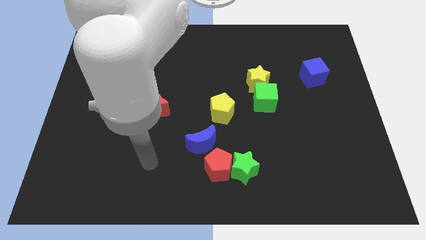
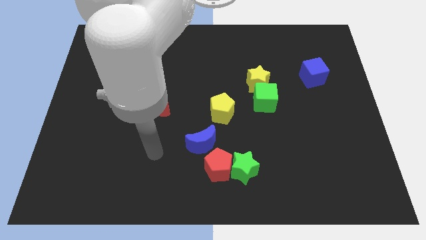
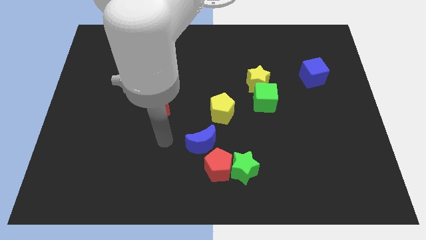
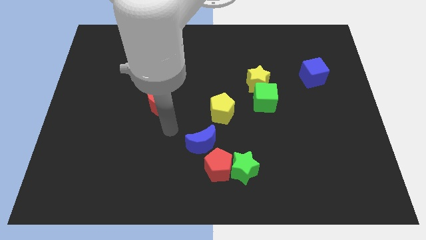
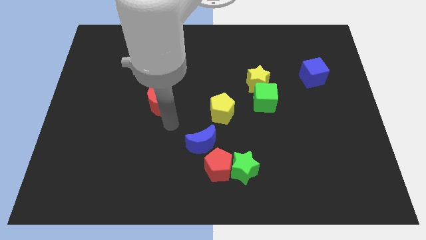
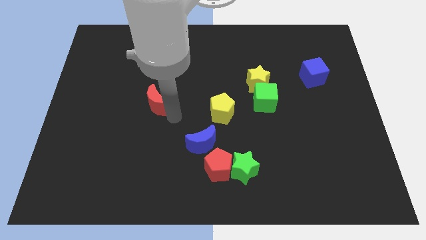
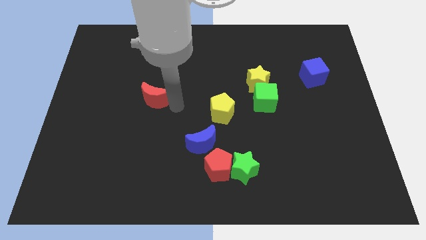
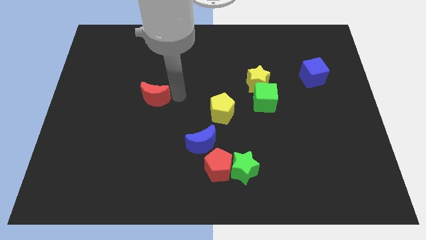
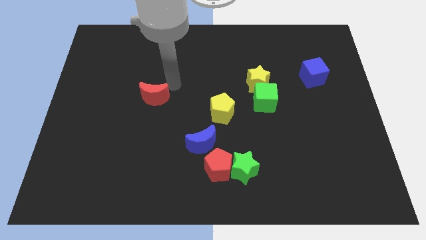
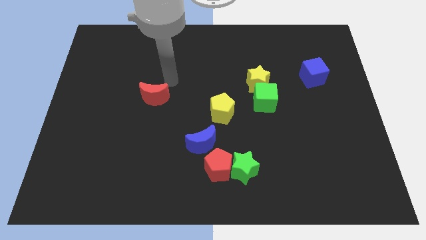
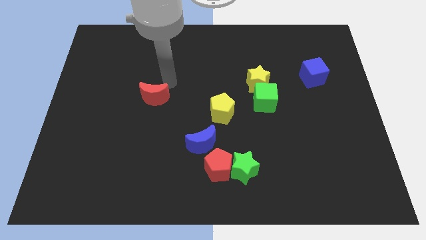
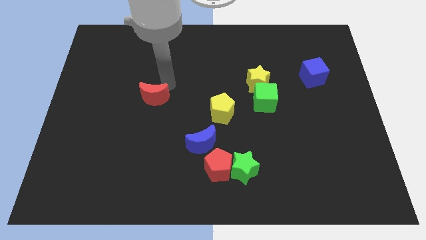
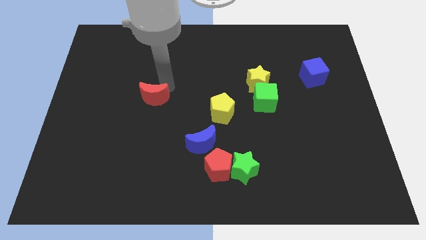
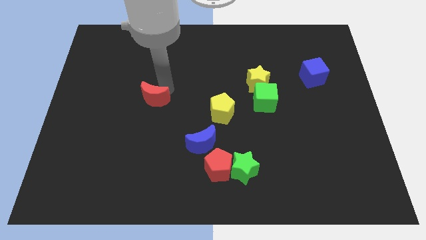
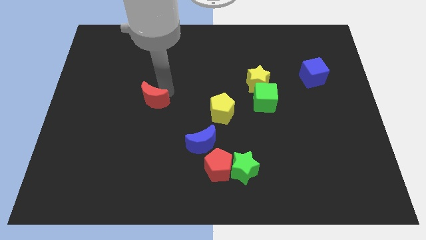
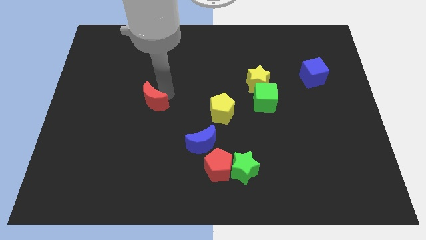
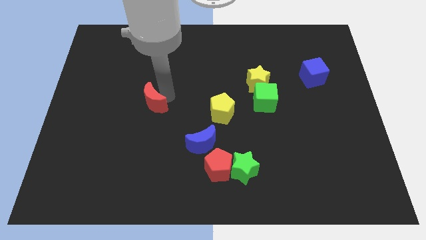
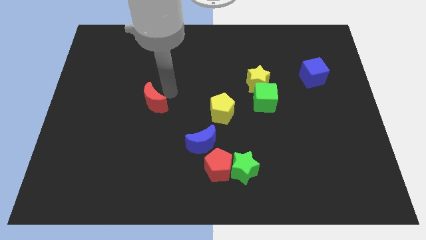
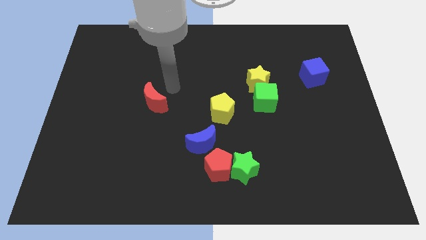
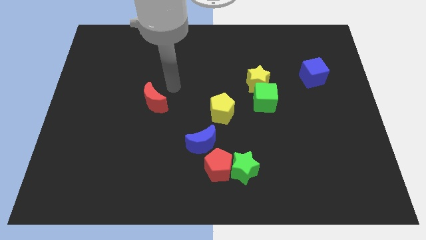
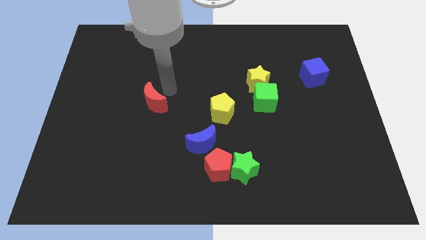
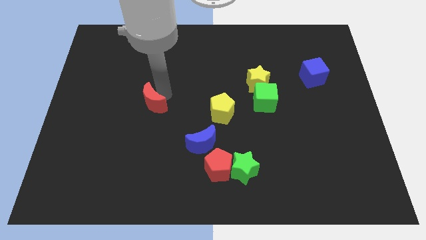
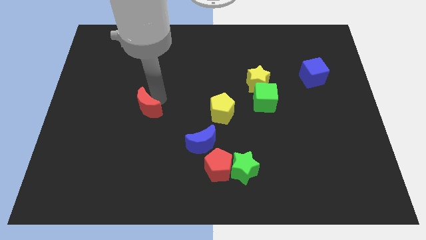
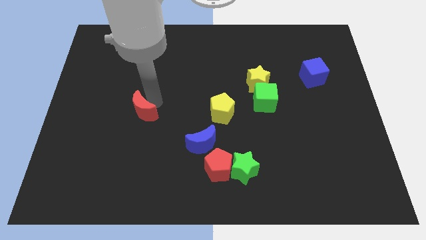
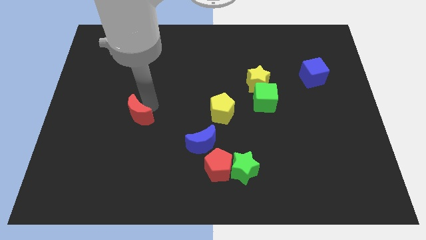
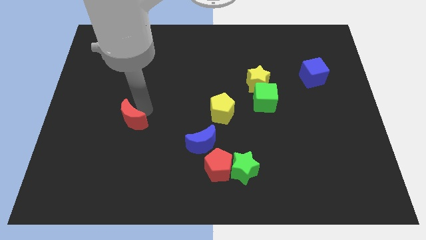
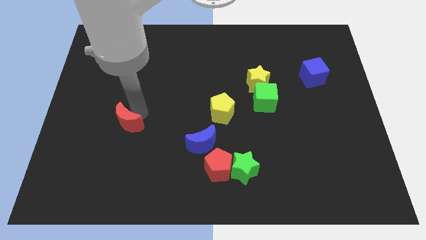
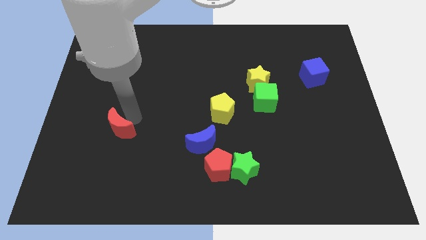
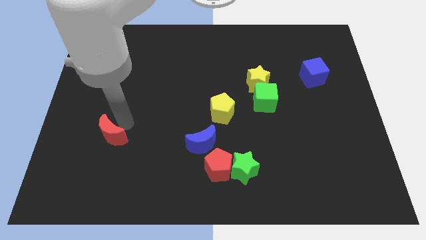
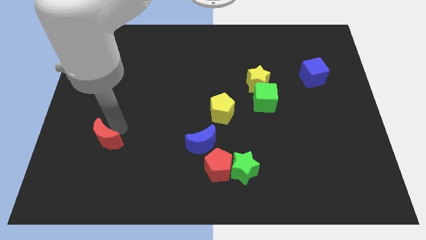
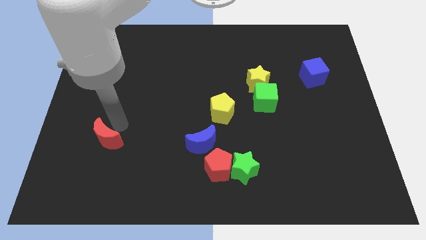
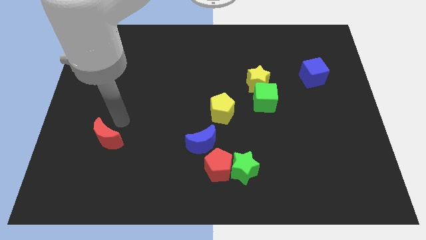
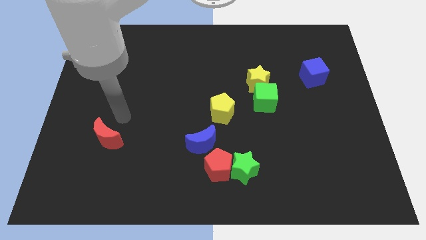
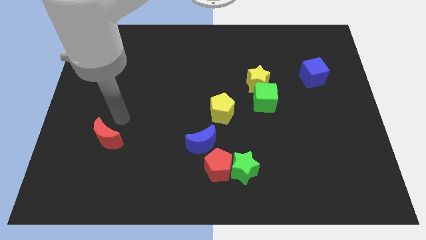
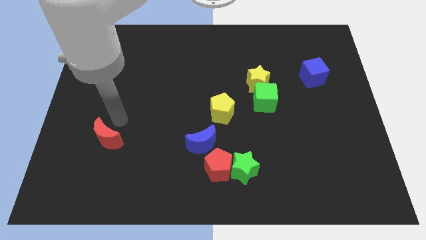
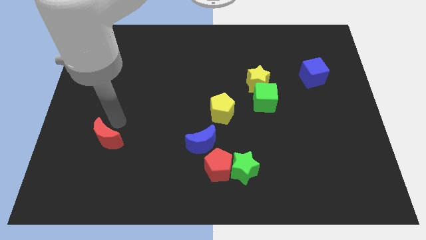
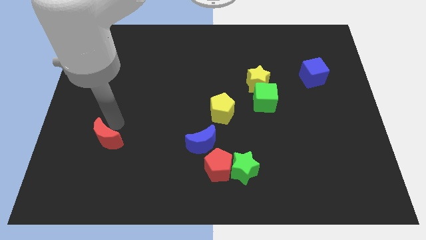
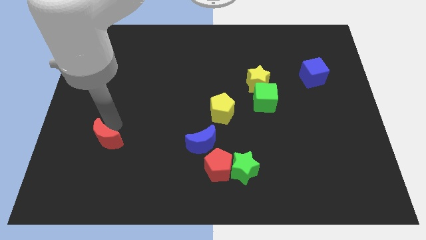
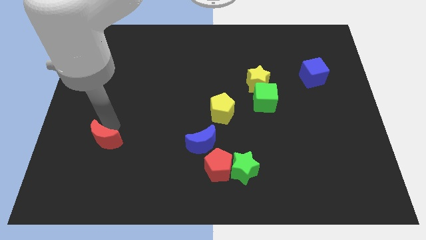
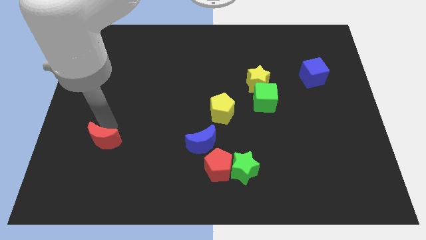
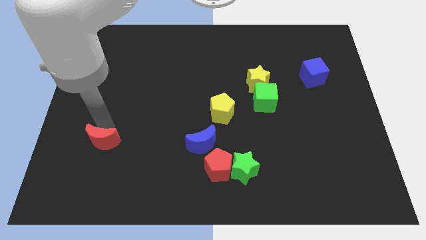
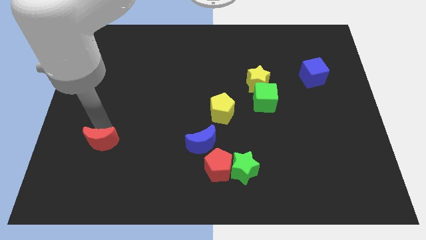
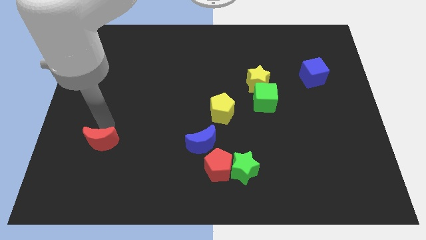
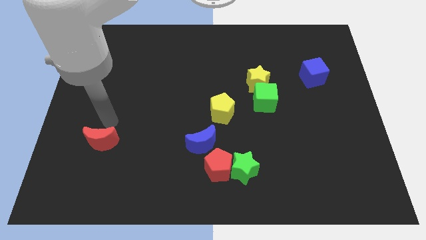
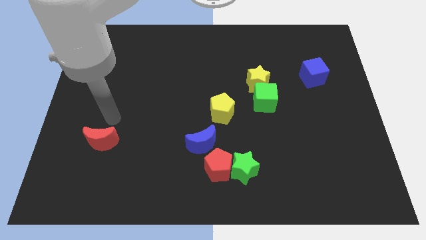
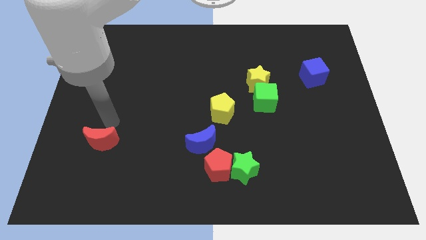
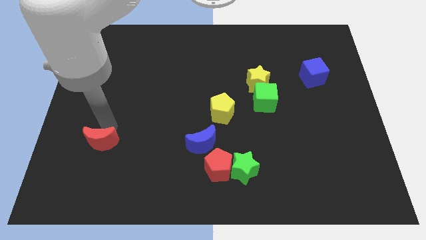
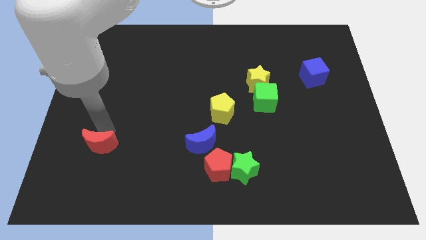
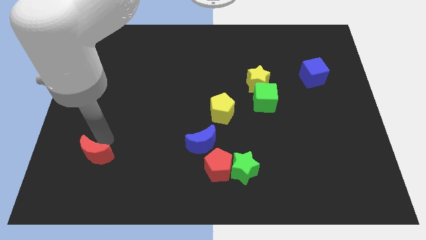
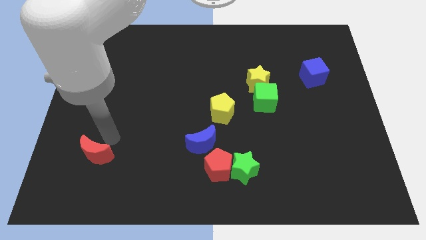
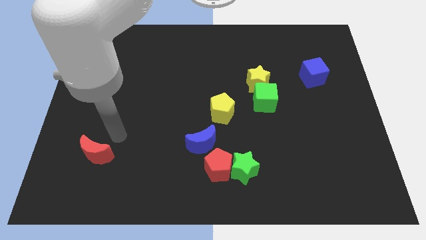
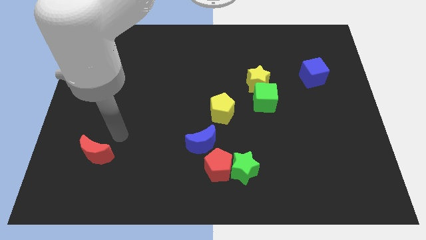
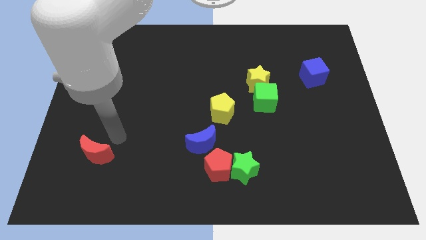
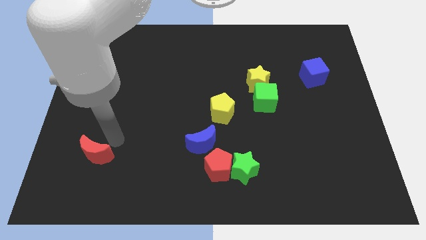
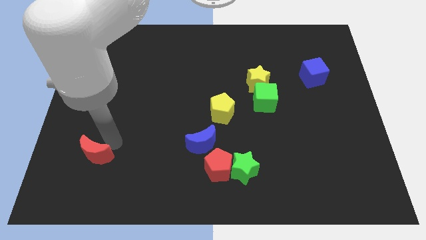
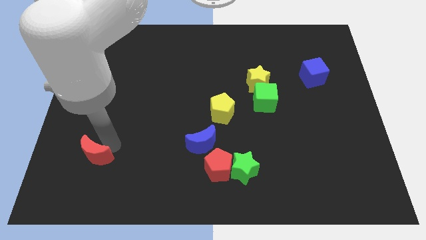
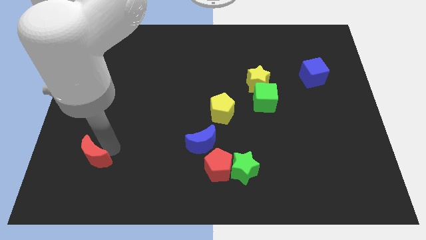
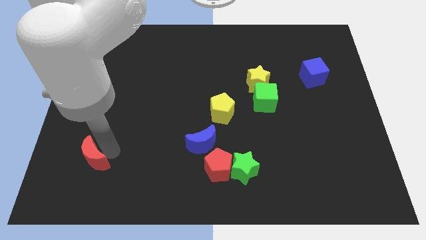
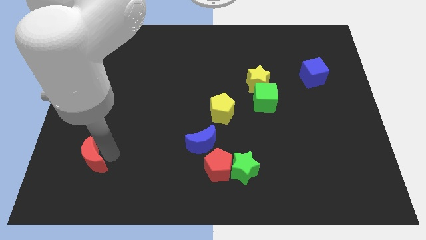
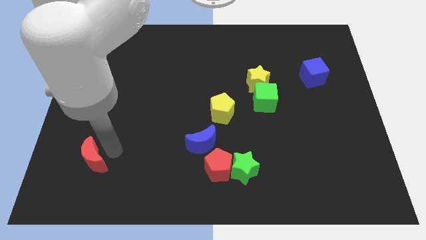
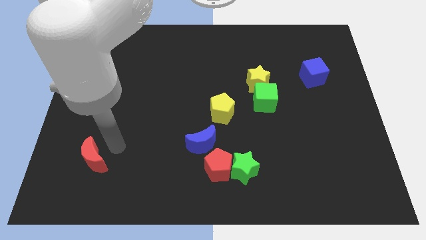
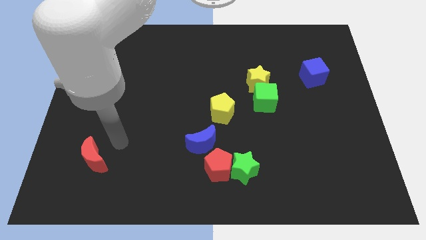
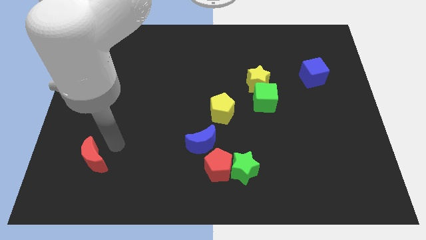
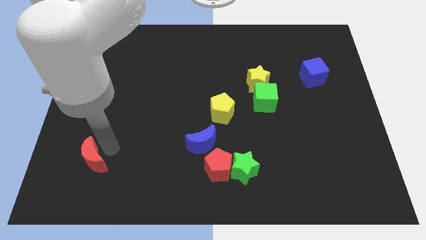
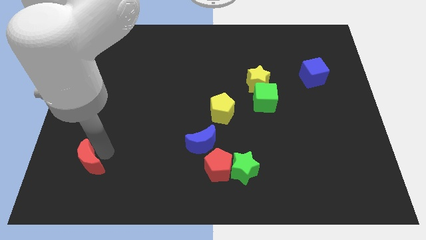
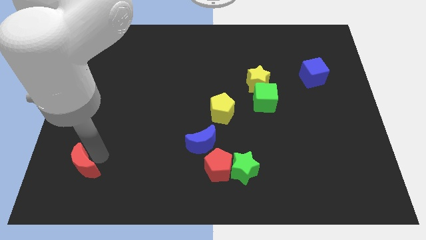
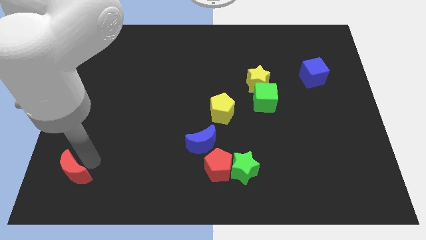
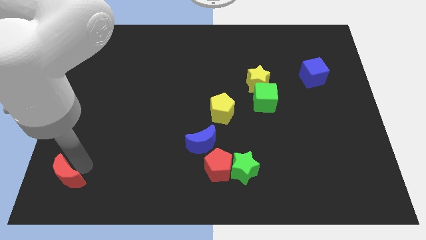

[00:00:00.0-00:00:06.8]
push the red moon to the bottom left
